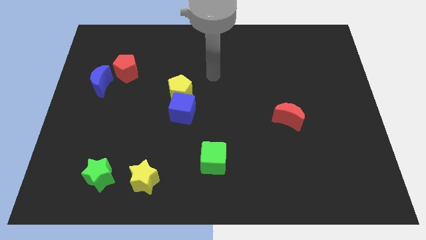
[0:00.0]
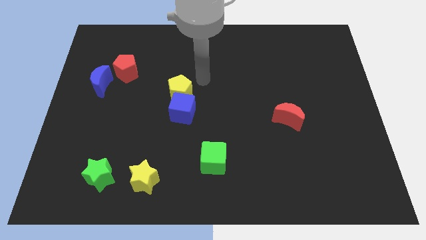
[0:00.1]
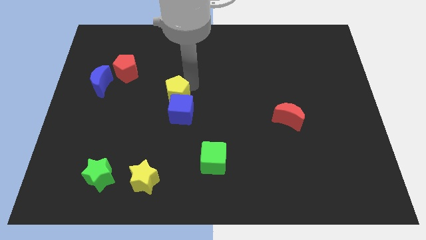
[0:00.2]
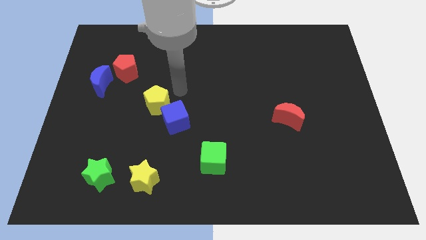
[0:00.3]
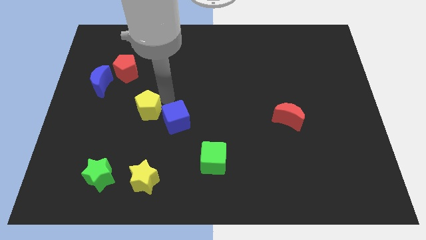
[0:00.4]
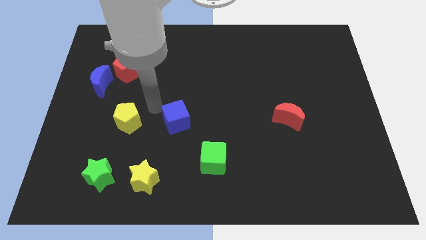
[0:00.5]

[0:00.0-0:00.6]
move the blue cube away from the yellow pentagon

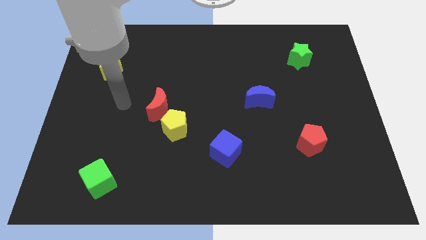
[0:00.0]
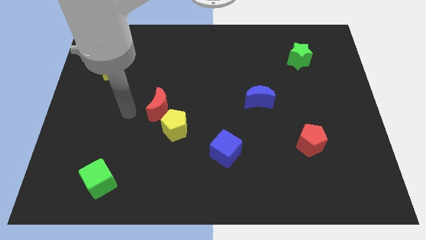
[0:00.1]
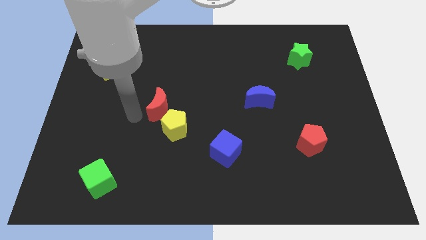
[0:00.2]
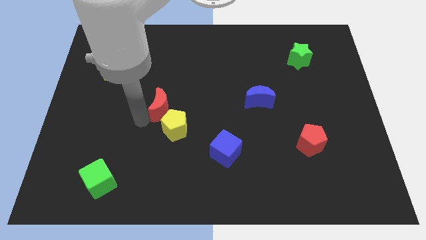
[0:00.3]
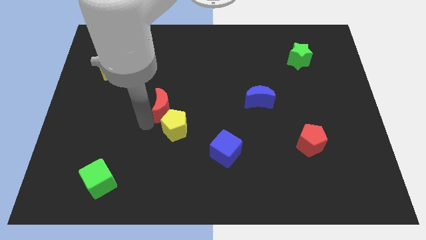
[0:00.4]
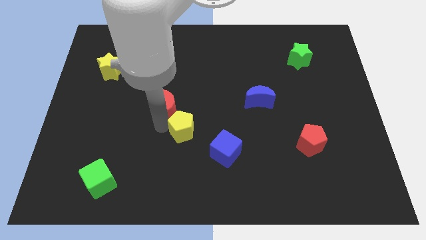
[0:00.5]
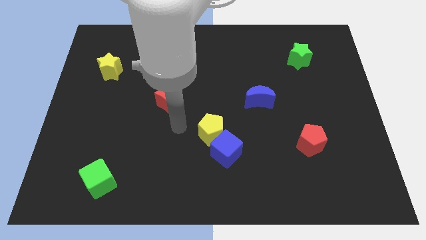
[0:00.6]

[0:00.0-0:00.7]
pull the red moon apart from the yellow pentagon

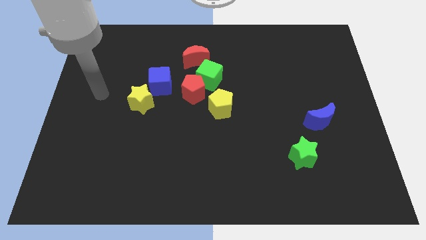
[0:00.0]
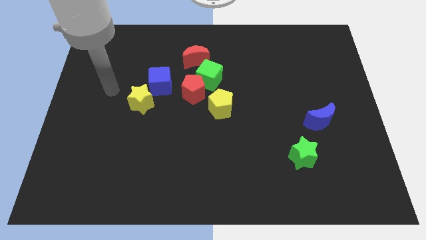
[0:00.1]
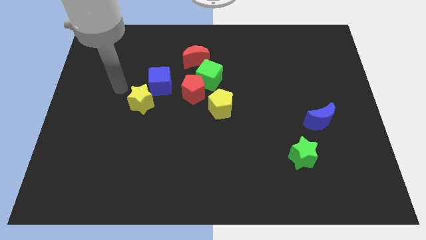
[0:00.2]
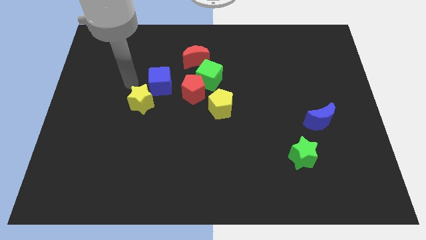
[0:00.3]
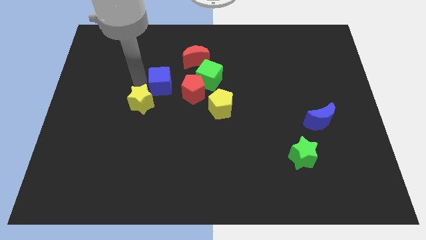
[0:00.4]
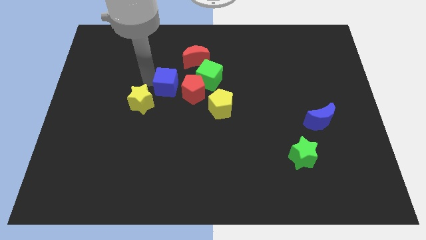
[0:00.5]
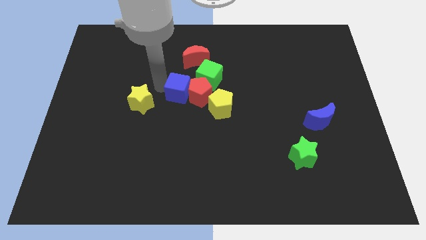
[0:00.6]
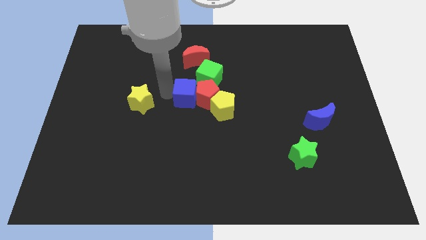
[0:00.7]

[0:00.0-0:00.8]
separate the yellow star from the blue cube

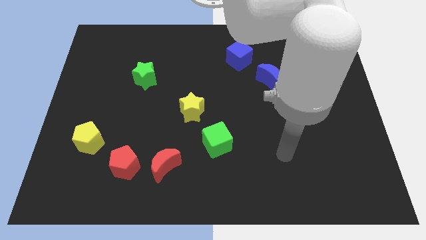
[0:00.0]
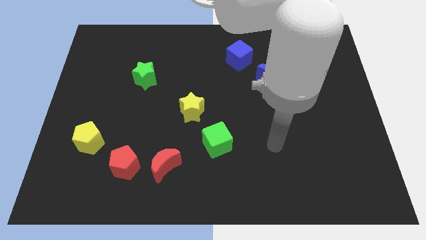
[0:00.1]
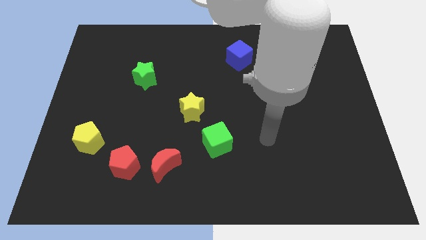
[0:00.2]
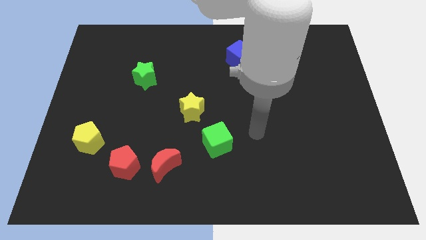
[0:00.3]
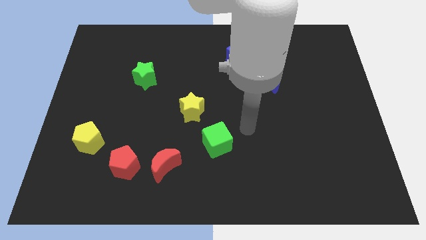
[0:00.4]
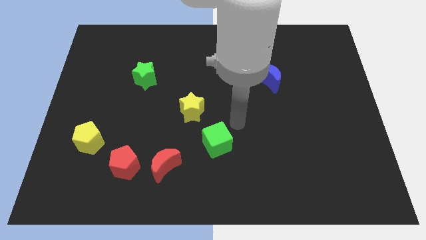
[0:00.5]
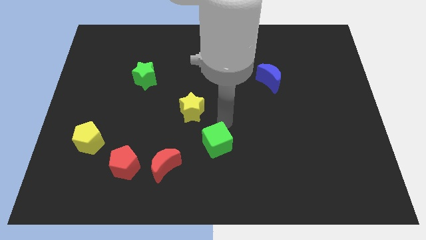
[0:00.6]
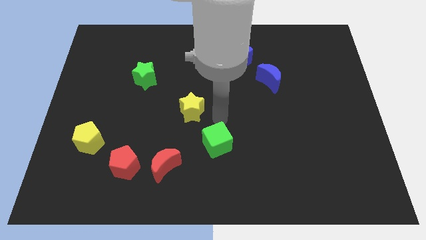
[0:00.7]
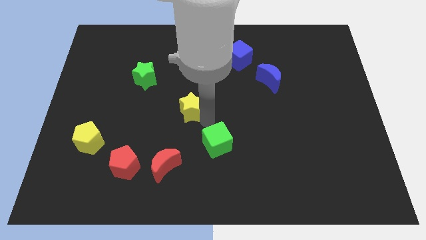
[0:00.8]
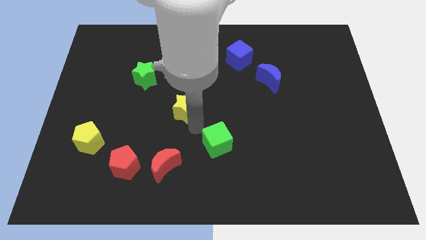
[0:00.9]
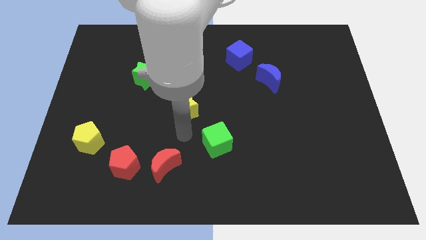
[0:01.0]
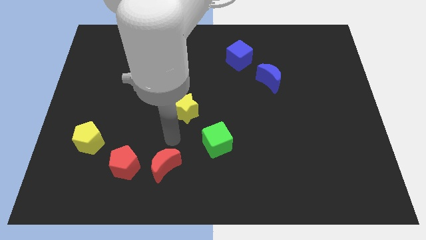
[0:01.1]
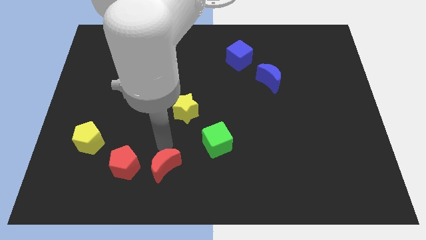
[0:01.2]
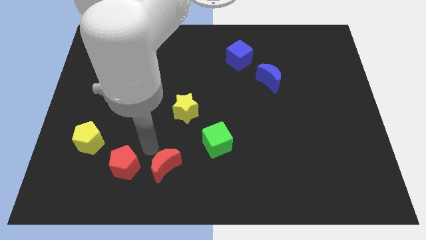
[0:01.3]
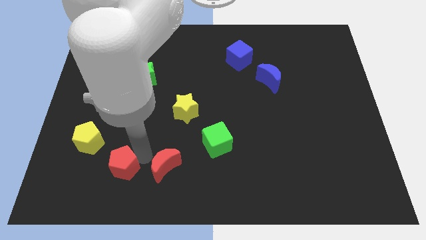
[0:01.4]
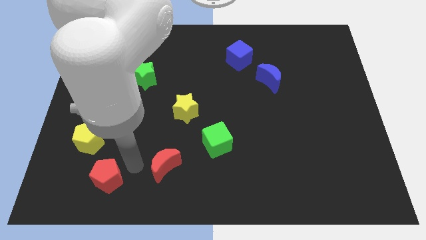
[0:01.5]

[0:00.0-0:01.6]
separate the red moon from the red pentagon

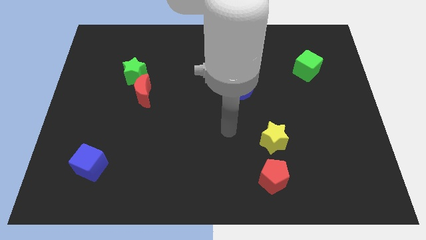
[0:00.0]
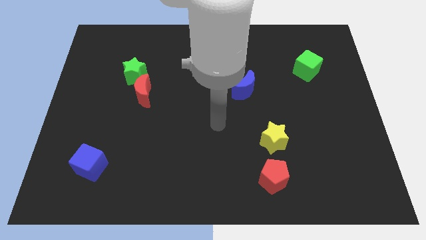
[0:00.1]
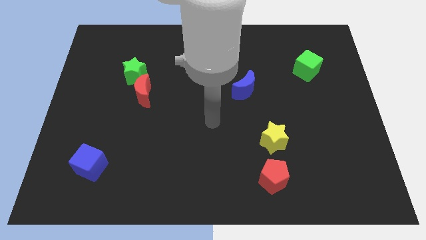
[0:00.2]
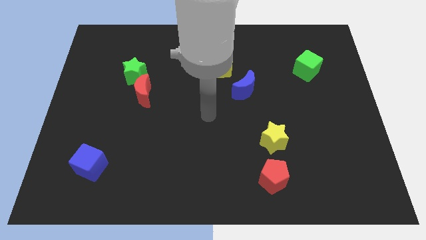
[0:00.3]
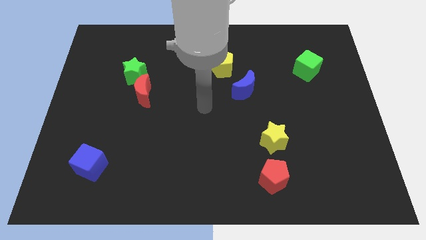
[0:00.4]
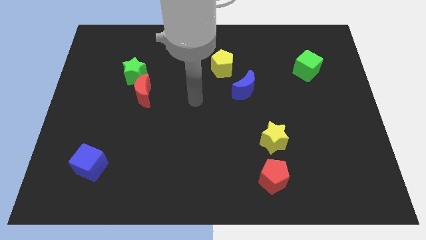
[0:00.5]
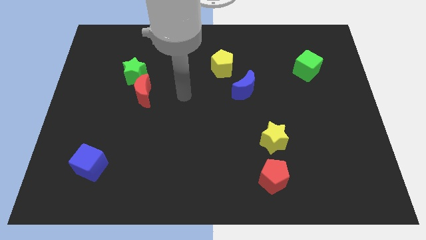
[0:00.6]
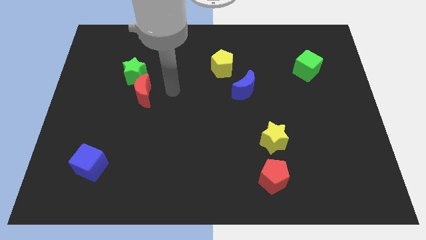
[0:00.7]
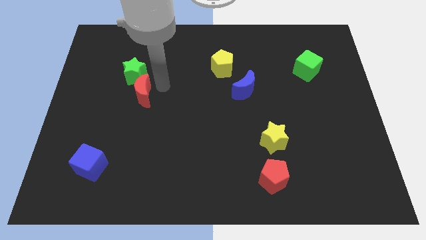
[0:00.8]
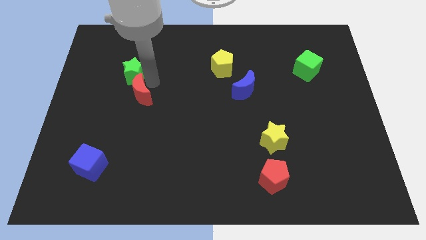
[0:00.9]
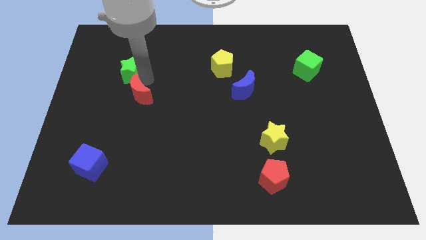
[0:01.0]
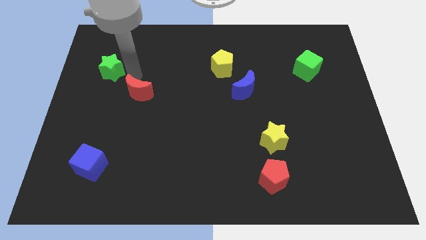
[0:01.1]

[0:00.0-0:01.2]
pull the red moon apart from the green star

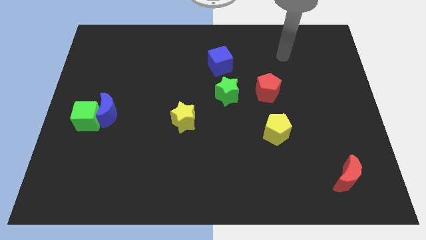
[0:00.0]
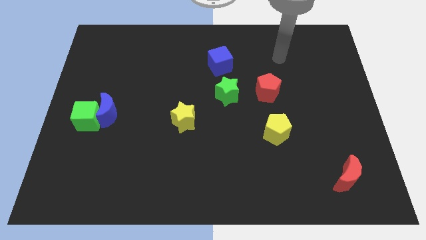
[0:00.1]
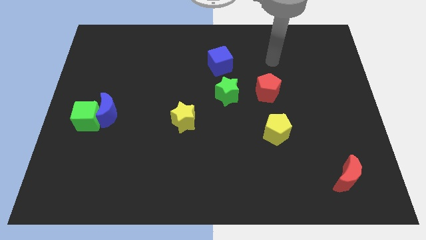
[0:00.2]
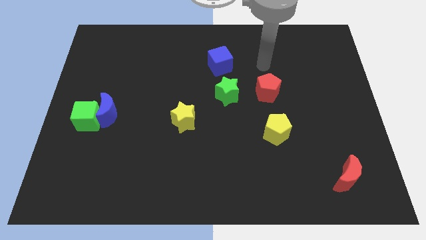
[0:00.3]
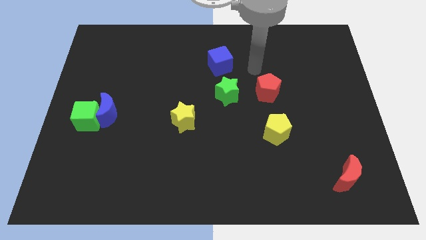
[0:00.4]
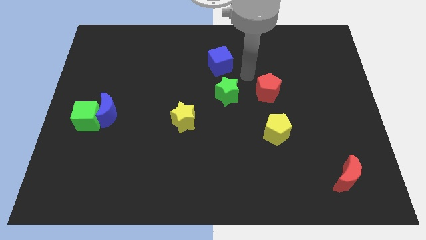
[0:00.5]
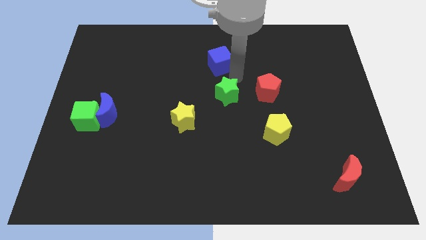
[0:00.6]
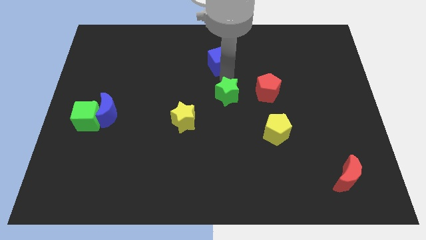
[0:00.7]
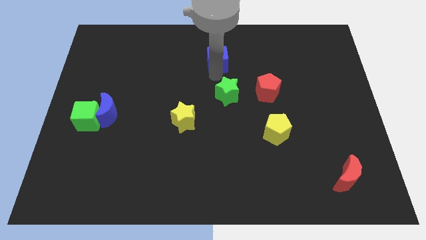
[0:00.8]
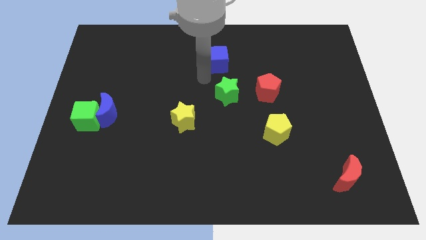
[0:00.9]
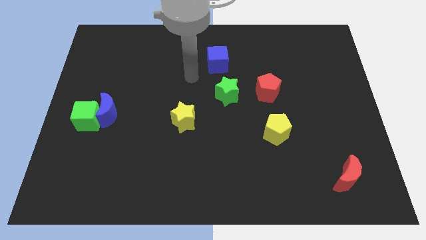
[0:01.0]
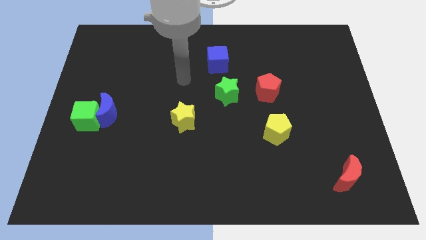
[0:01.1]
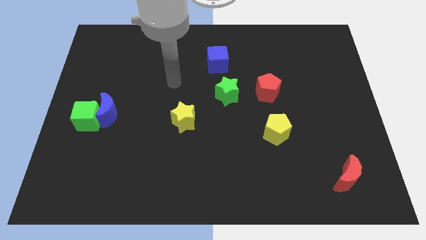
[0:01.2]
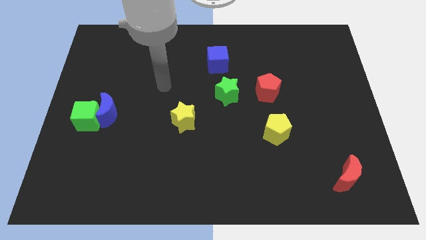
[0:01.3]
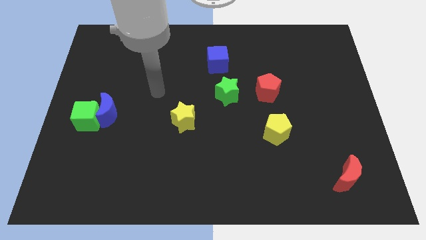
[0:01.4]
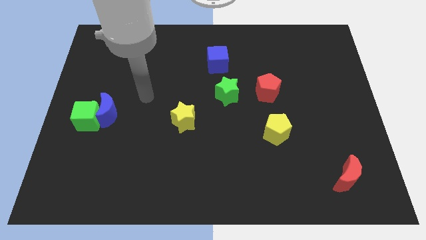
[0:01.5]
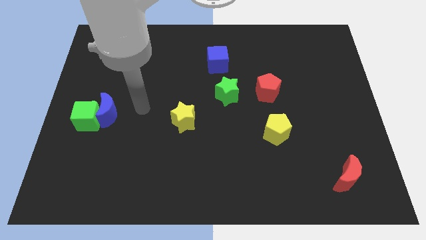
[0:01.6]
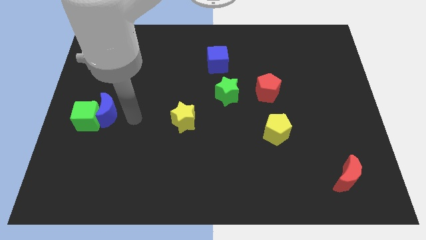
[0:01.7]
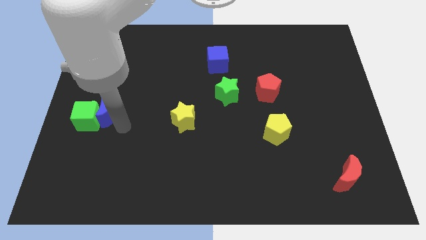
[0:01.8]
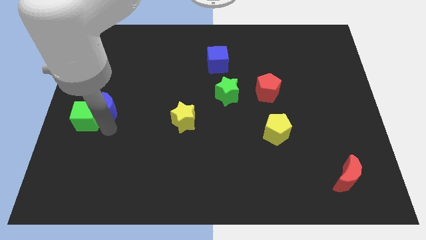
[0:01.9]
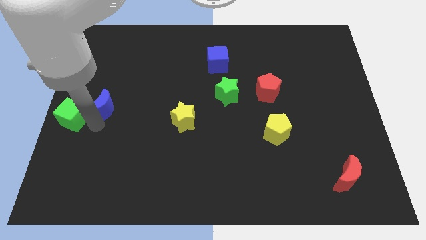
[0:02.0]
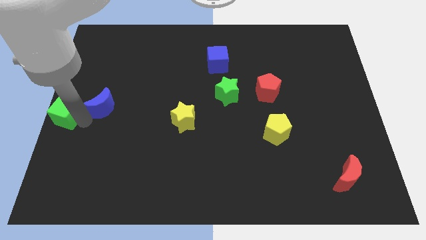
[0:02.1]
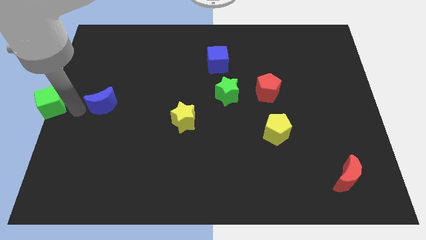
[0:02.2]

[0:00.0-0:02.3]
pull the blue moon apart from the green cube

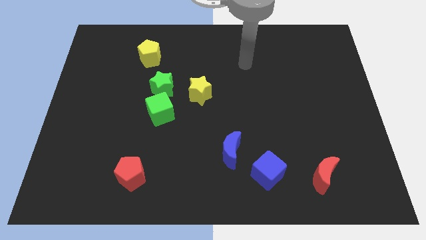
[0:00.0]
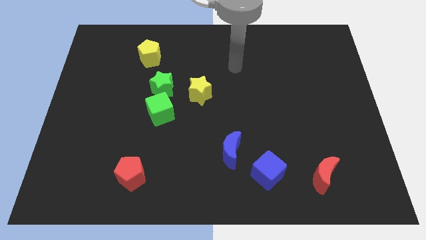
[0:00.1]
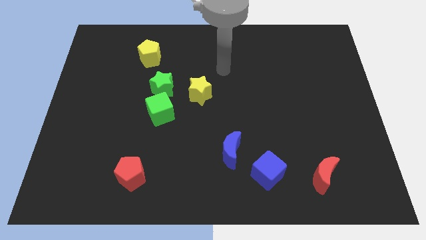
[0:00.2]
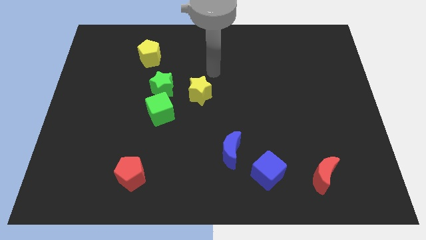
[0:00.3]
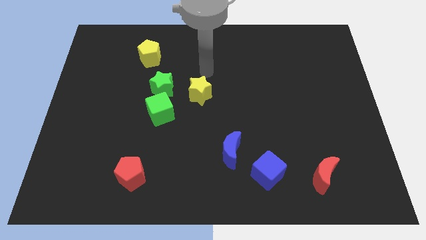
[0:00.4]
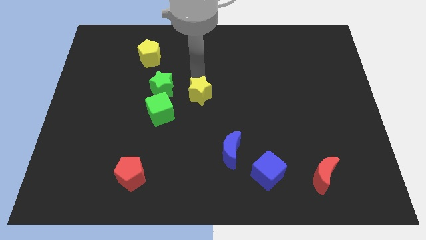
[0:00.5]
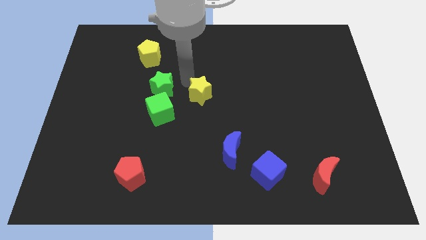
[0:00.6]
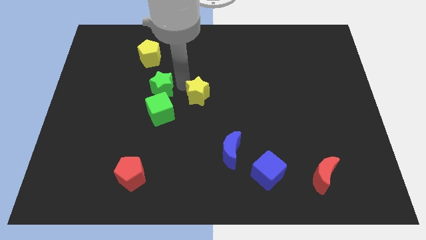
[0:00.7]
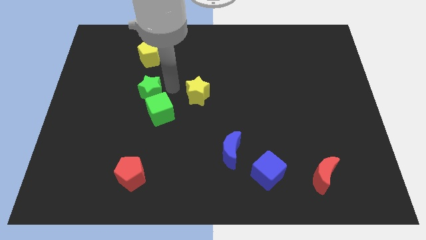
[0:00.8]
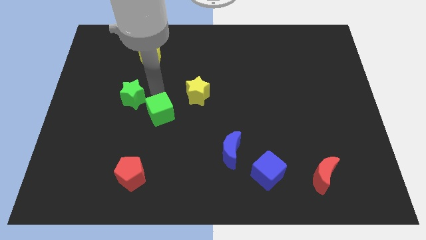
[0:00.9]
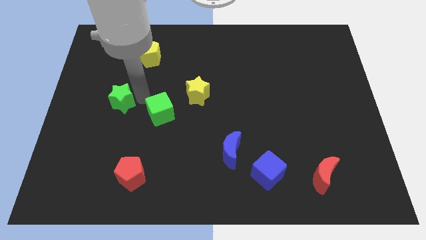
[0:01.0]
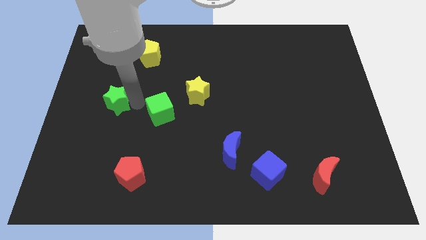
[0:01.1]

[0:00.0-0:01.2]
move the green cube away from the green star

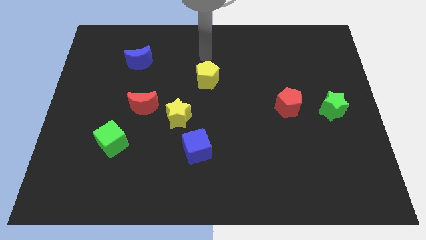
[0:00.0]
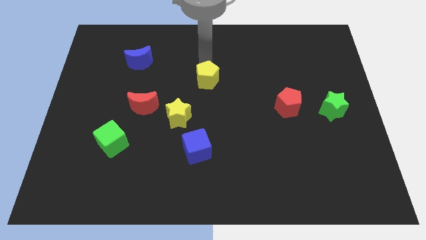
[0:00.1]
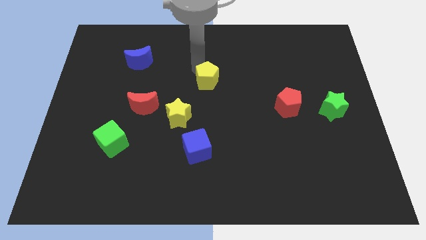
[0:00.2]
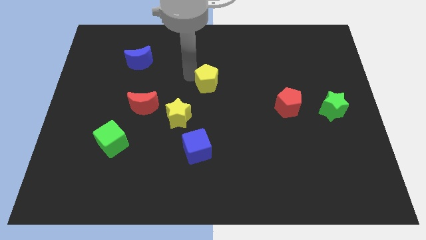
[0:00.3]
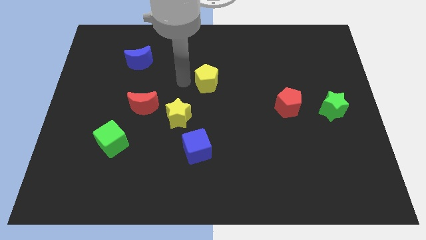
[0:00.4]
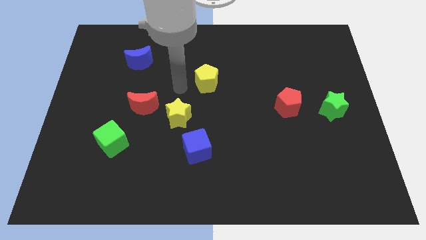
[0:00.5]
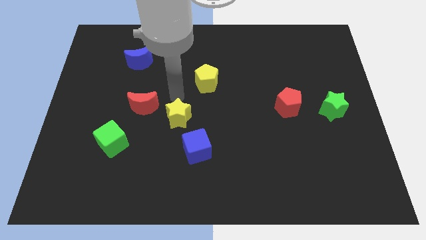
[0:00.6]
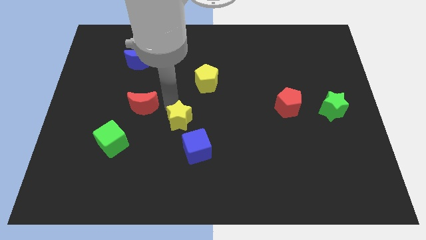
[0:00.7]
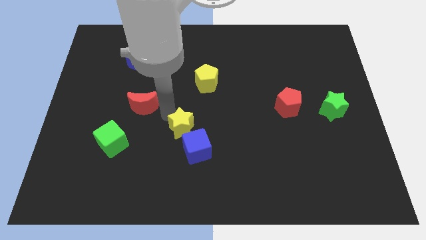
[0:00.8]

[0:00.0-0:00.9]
separate the red moon from the yellow star
